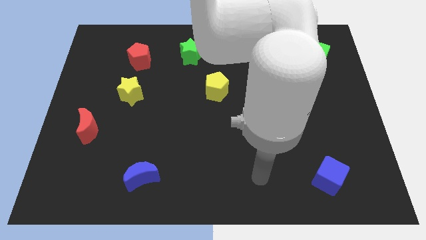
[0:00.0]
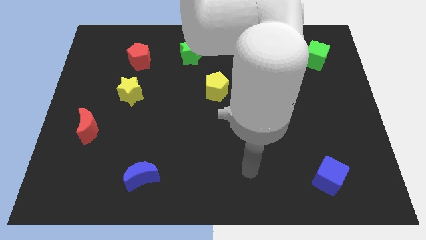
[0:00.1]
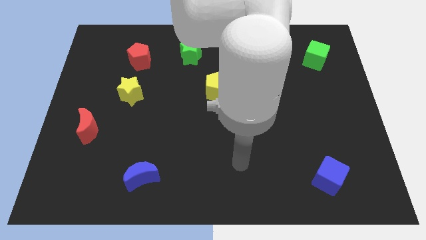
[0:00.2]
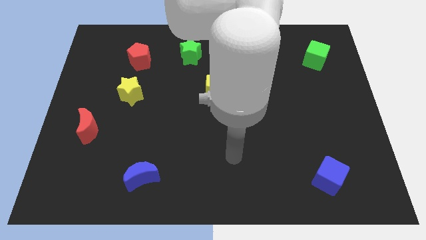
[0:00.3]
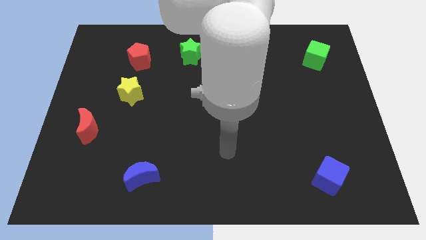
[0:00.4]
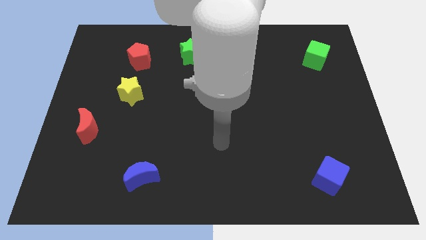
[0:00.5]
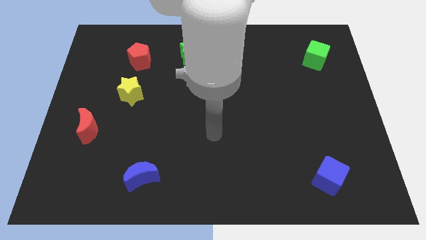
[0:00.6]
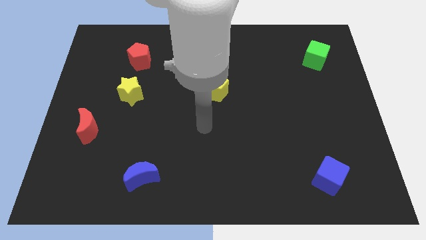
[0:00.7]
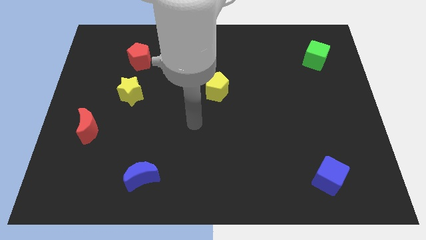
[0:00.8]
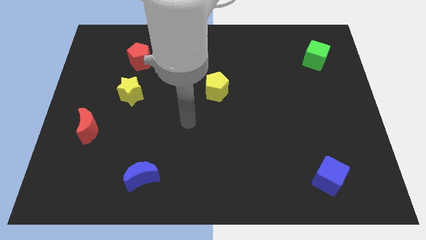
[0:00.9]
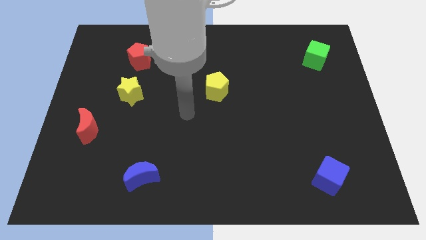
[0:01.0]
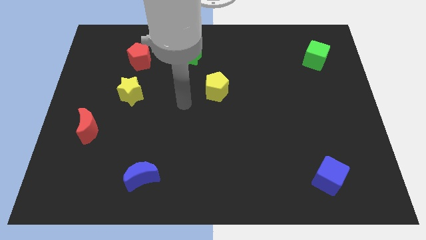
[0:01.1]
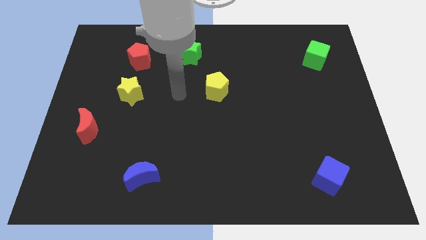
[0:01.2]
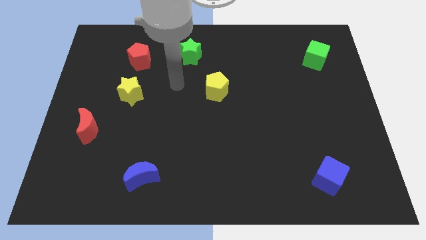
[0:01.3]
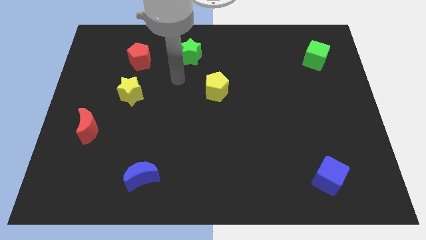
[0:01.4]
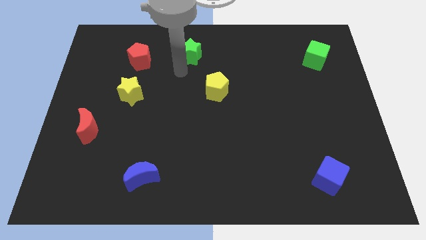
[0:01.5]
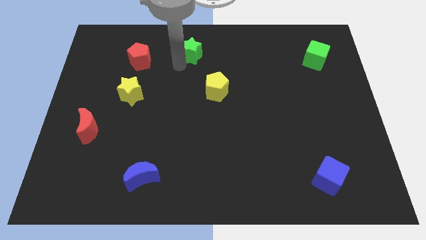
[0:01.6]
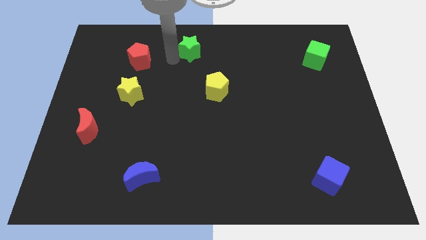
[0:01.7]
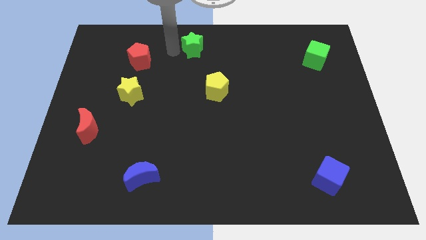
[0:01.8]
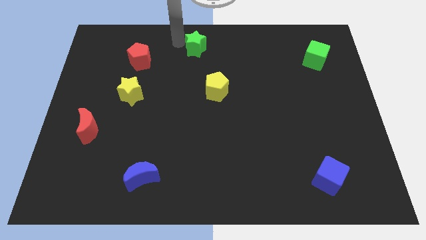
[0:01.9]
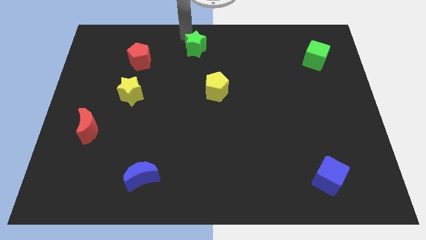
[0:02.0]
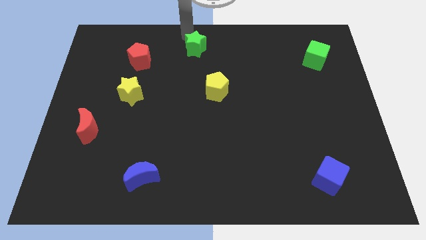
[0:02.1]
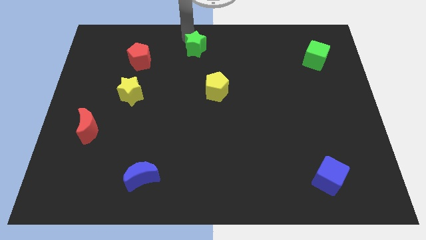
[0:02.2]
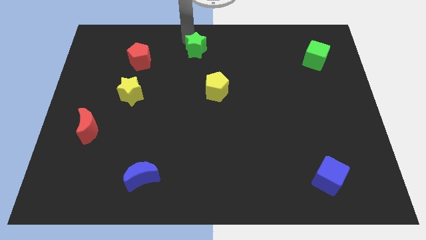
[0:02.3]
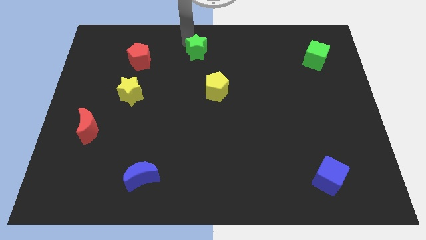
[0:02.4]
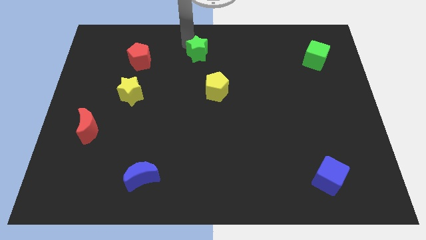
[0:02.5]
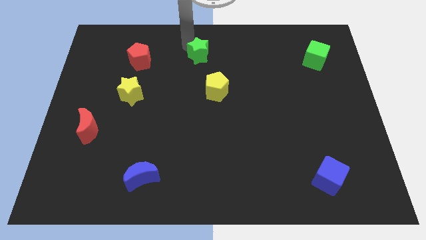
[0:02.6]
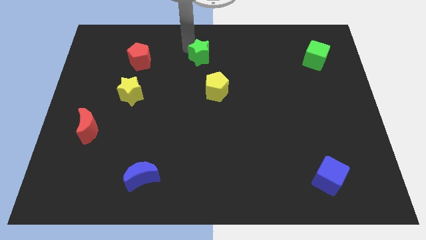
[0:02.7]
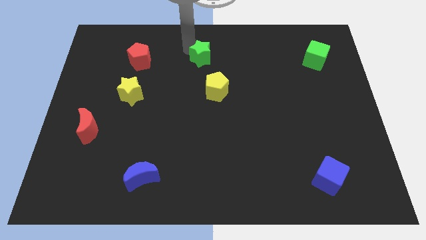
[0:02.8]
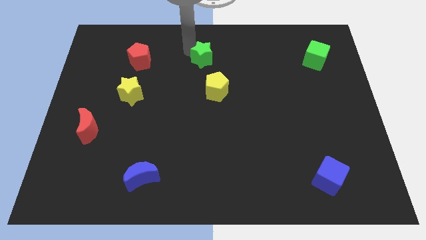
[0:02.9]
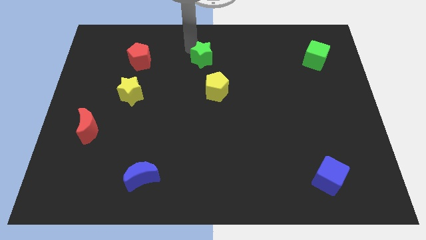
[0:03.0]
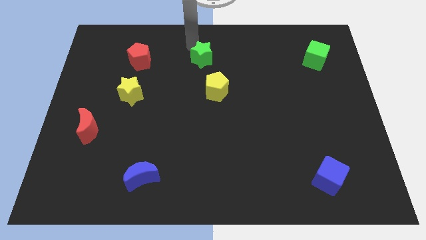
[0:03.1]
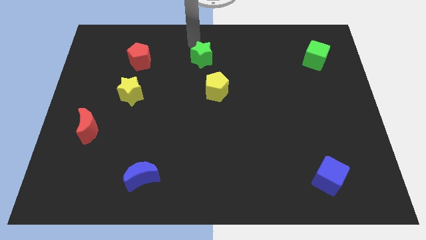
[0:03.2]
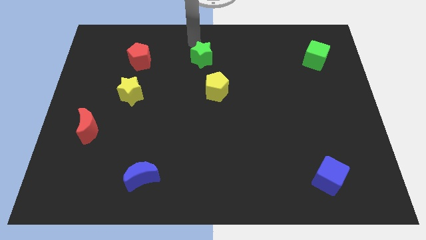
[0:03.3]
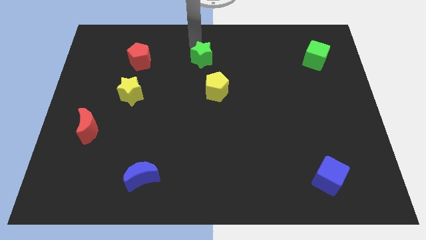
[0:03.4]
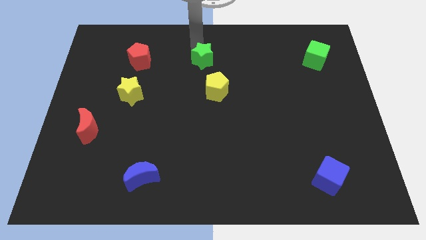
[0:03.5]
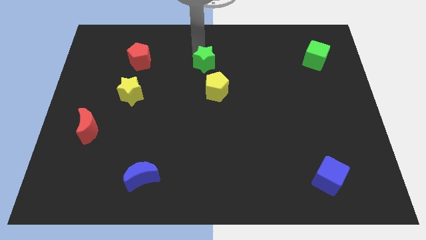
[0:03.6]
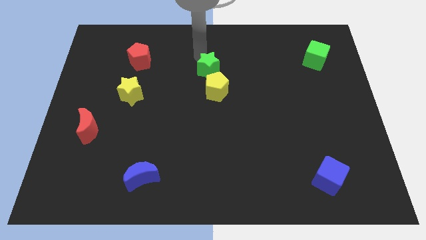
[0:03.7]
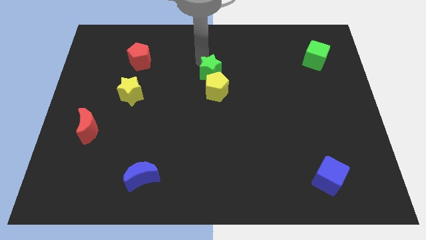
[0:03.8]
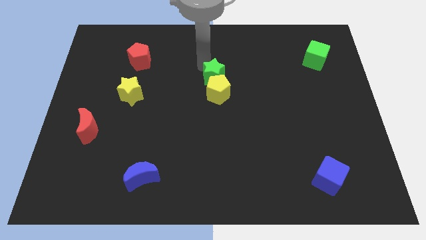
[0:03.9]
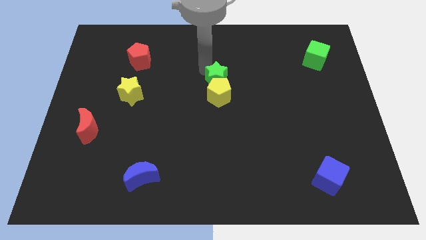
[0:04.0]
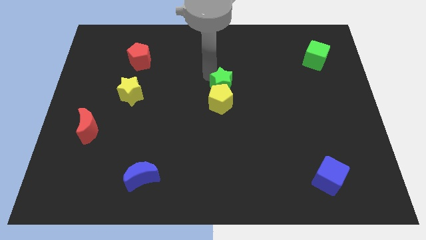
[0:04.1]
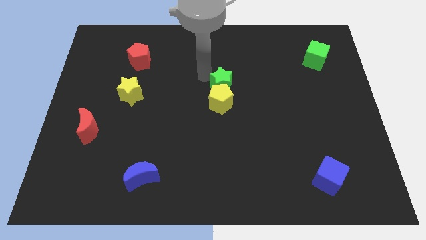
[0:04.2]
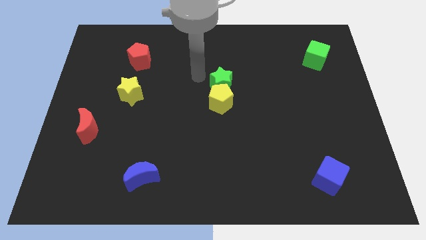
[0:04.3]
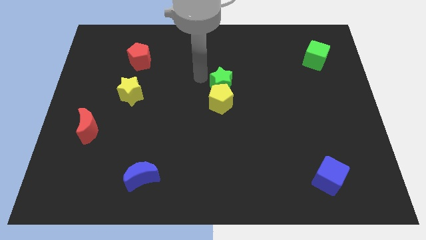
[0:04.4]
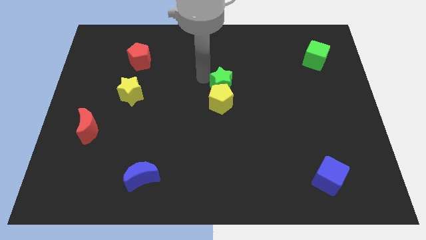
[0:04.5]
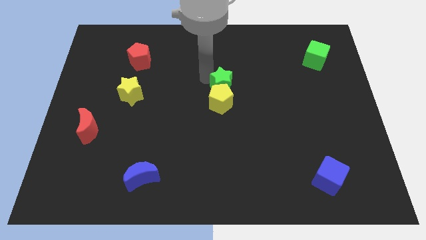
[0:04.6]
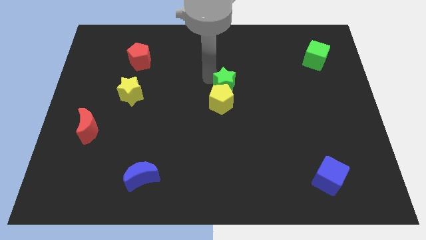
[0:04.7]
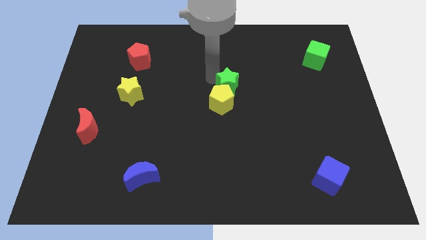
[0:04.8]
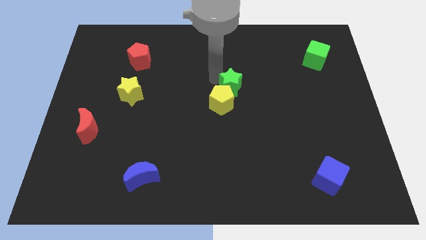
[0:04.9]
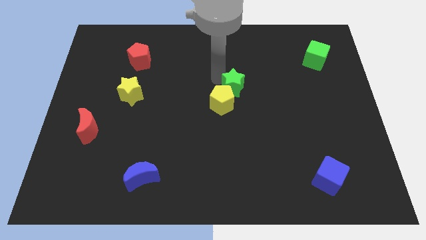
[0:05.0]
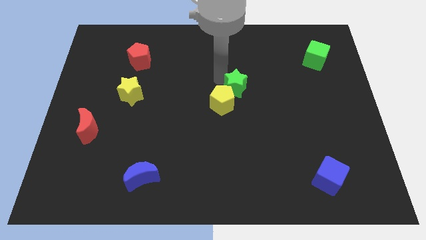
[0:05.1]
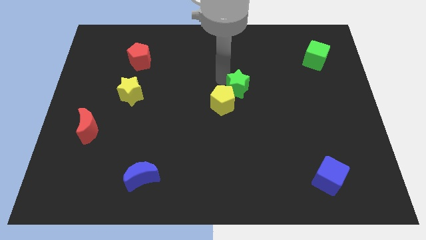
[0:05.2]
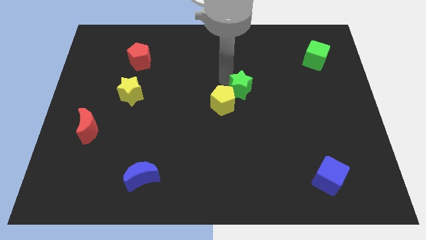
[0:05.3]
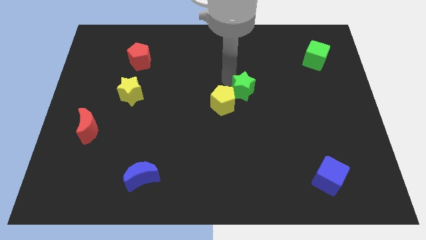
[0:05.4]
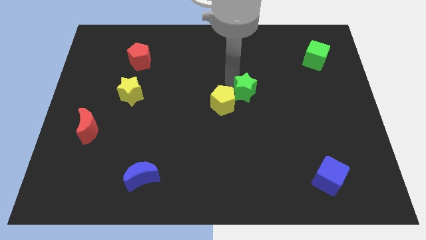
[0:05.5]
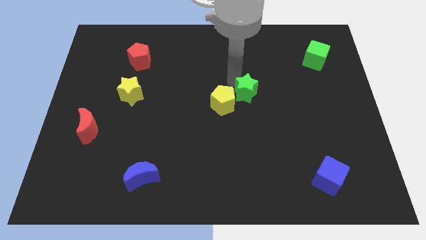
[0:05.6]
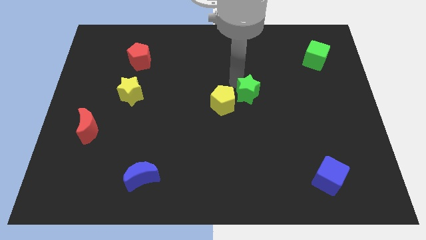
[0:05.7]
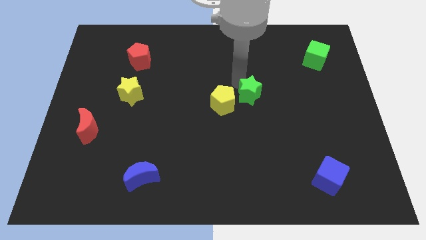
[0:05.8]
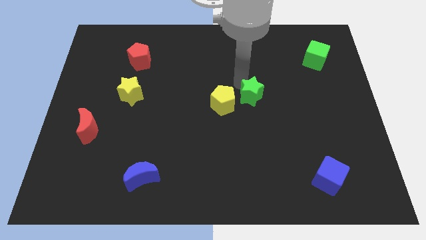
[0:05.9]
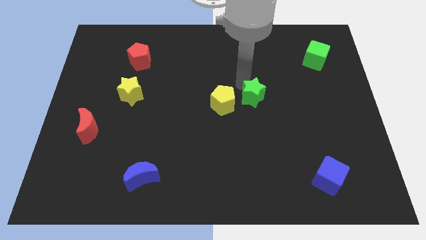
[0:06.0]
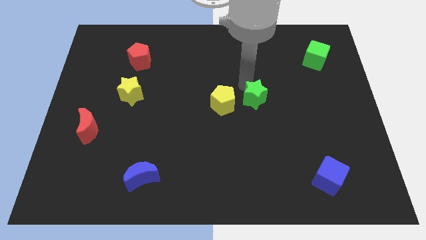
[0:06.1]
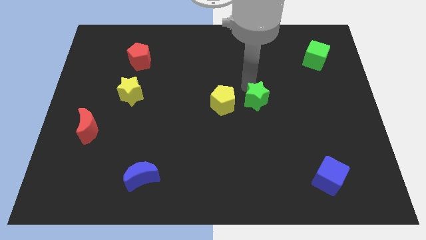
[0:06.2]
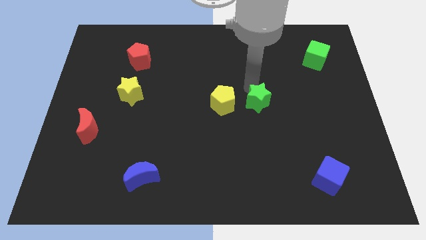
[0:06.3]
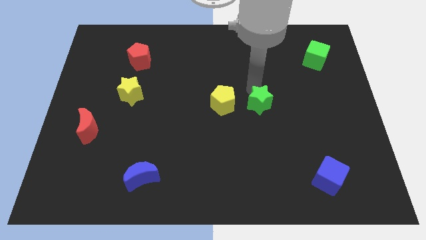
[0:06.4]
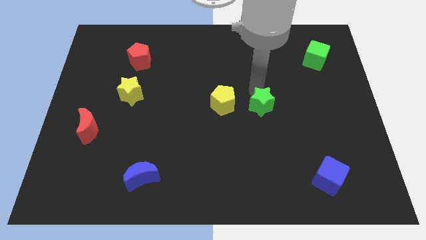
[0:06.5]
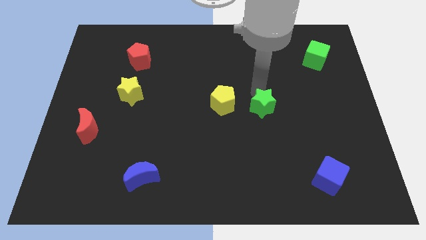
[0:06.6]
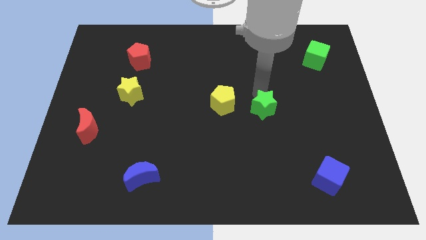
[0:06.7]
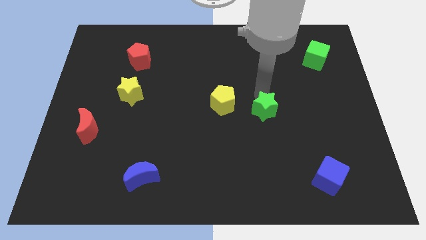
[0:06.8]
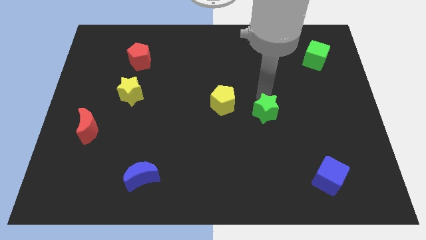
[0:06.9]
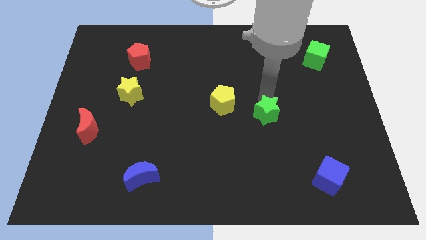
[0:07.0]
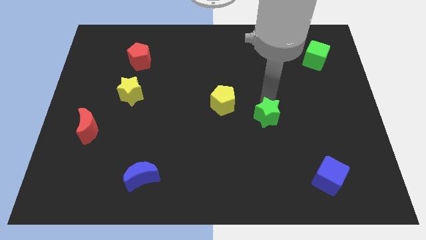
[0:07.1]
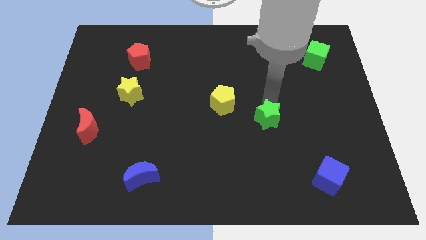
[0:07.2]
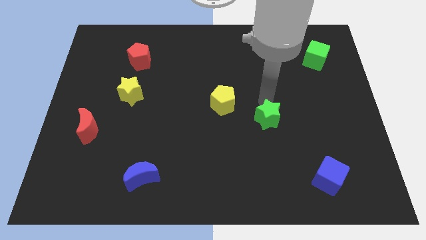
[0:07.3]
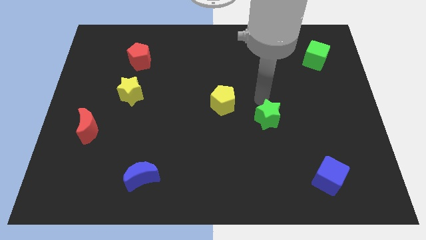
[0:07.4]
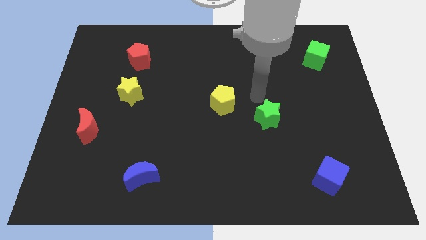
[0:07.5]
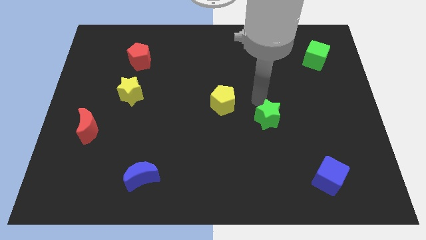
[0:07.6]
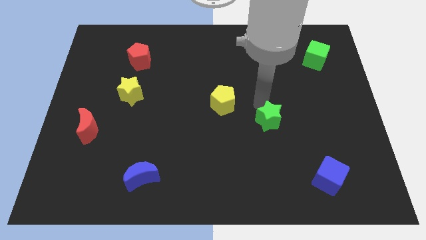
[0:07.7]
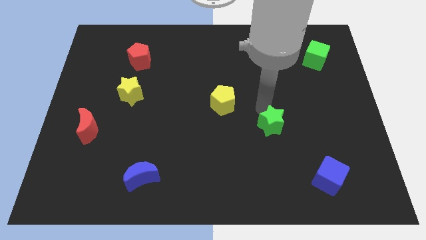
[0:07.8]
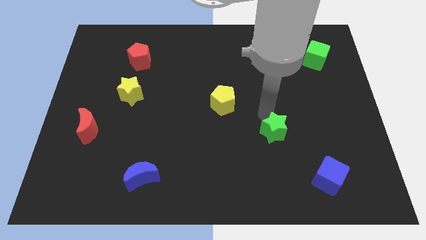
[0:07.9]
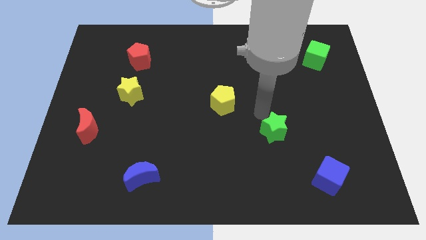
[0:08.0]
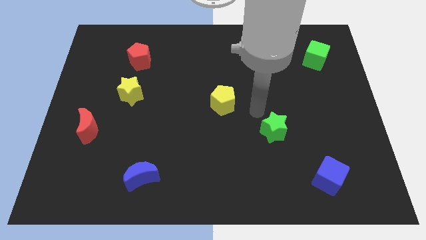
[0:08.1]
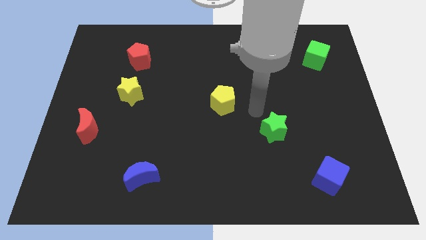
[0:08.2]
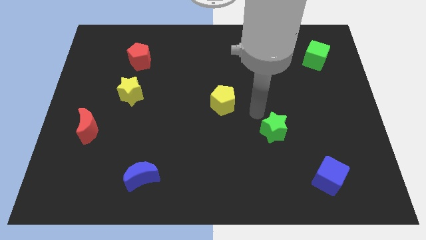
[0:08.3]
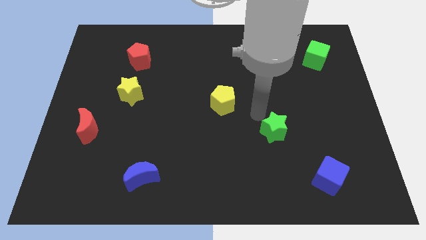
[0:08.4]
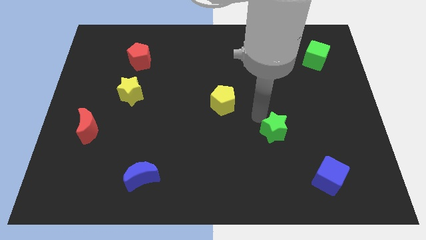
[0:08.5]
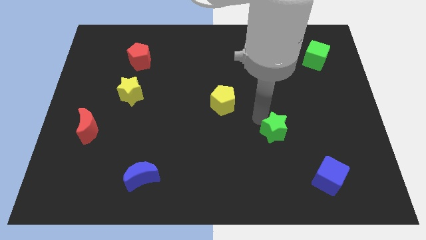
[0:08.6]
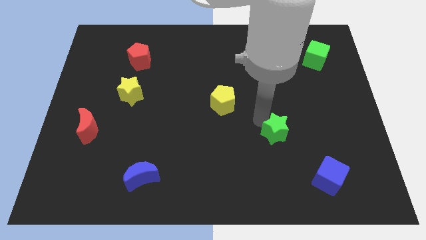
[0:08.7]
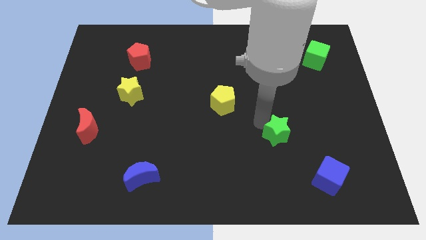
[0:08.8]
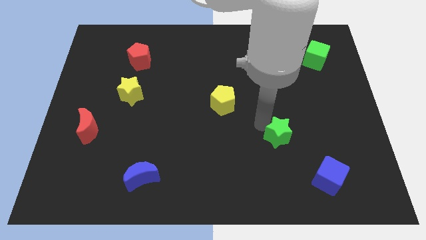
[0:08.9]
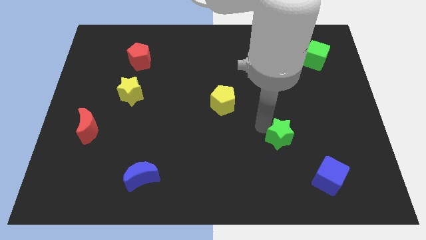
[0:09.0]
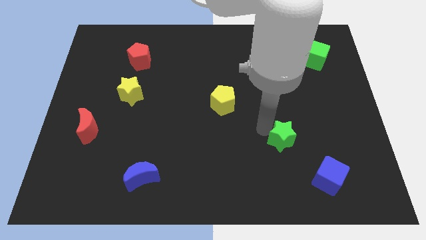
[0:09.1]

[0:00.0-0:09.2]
move the green star to the top left side of the blue cube
